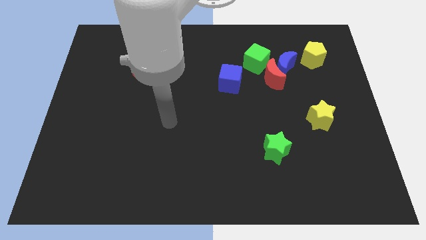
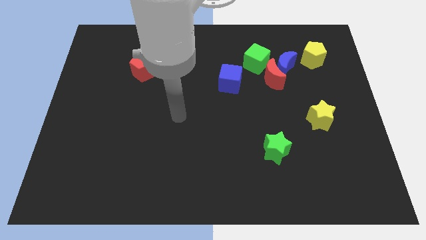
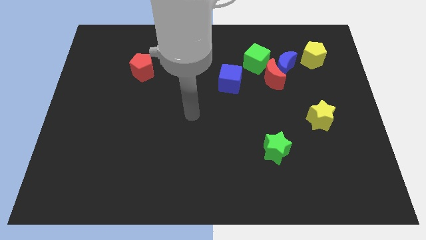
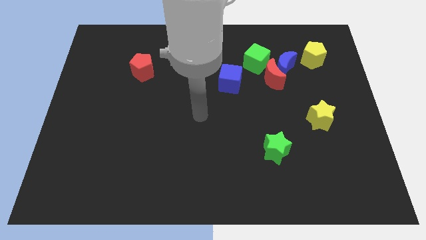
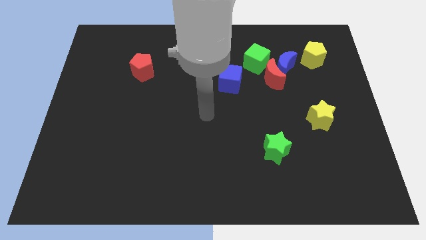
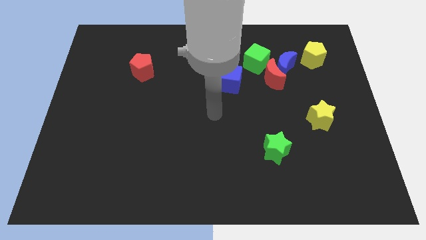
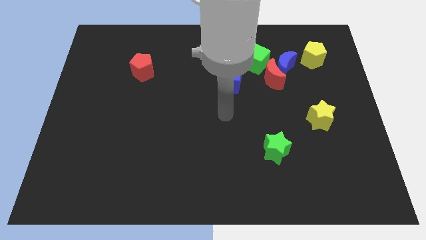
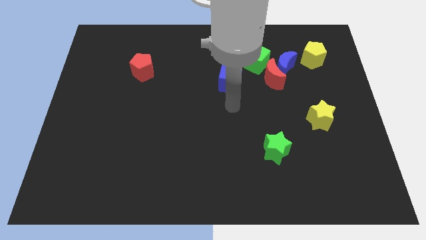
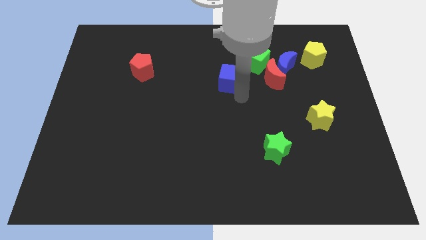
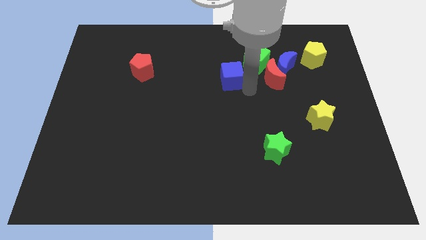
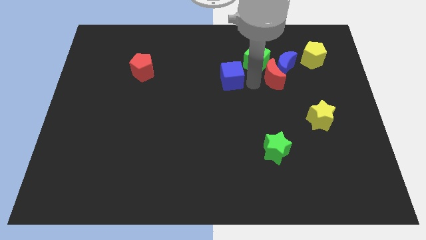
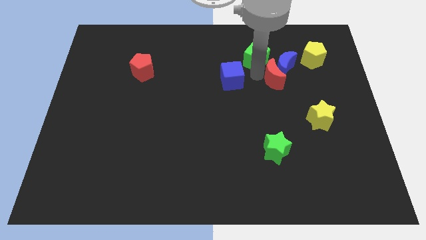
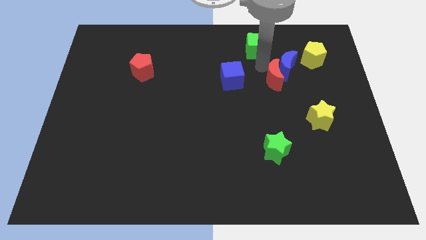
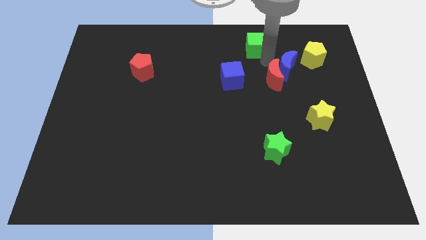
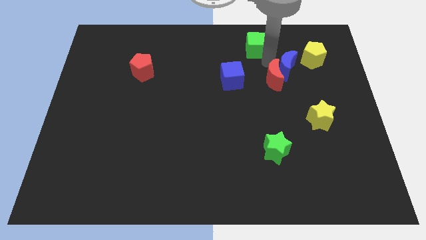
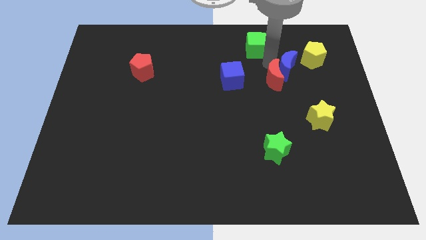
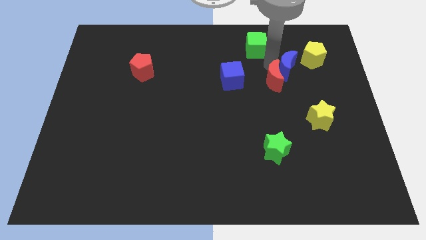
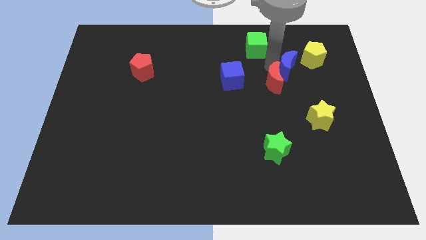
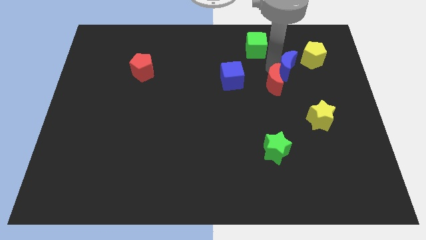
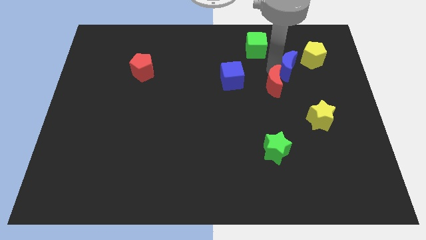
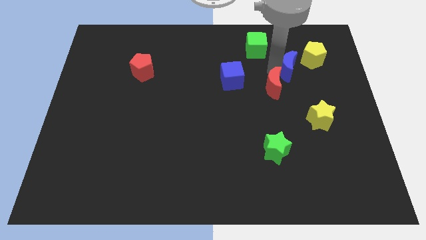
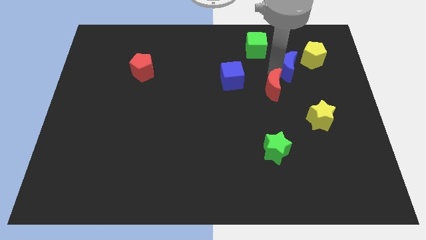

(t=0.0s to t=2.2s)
move the red moon away from the blue moon and green cube

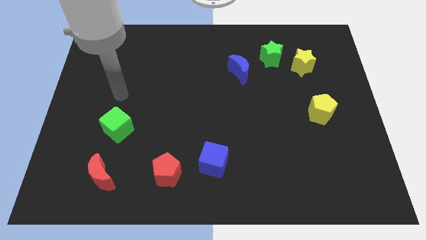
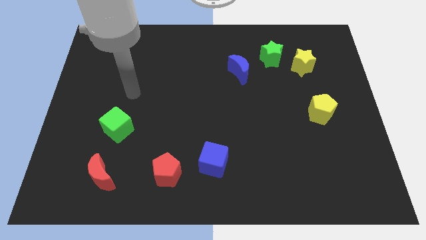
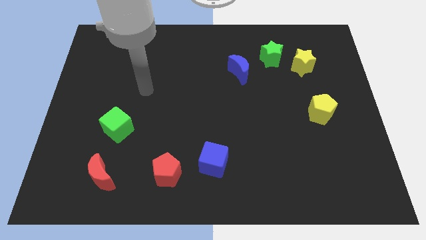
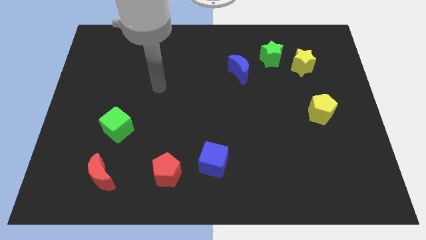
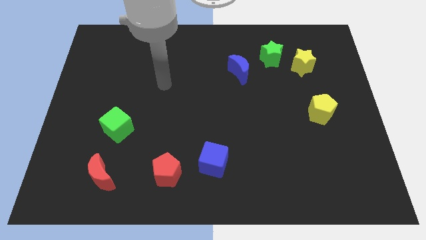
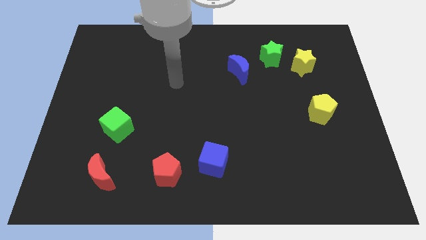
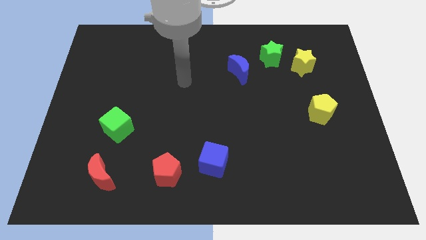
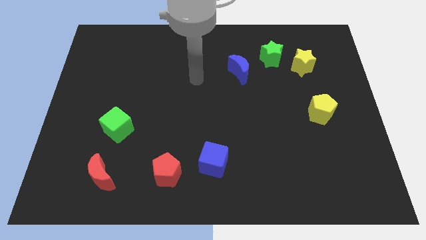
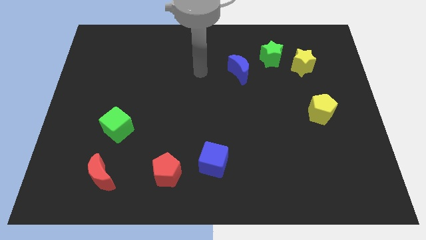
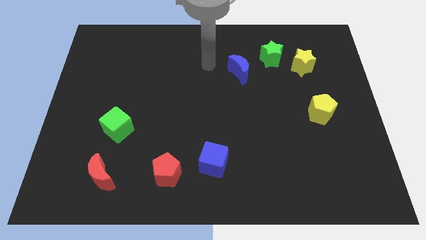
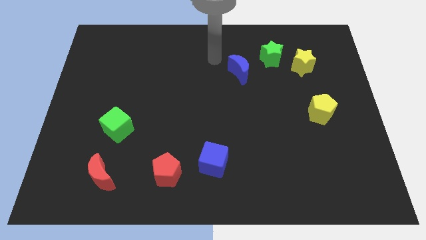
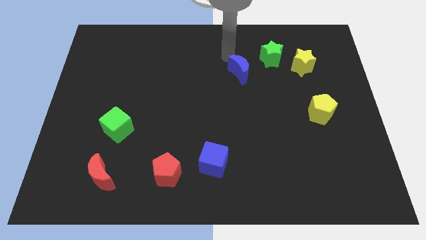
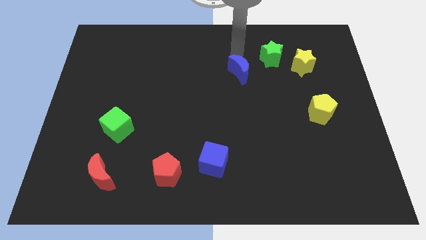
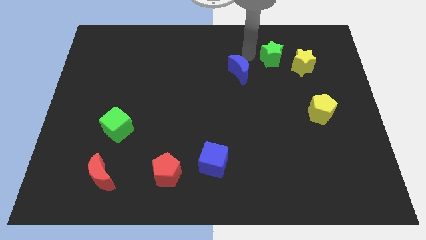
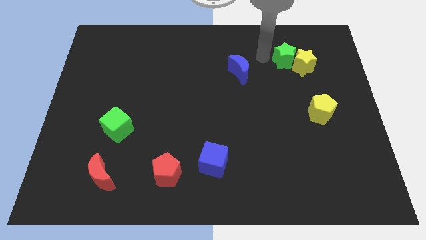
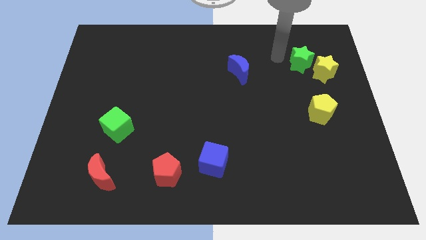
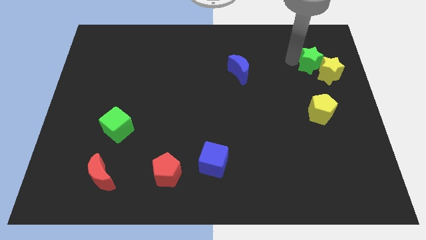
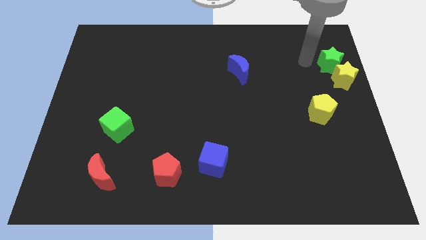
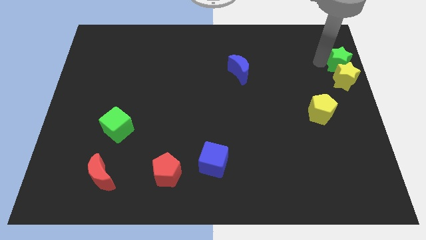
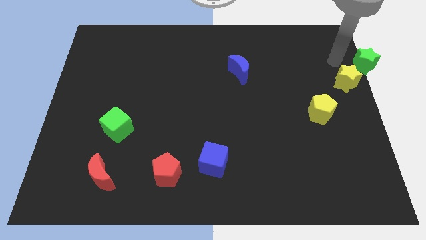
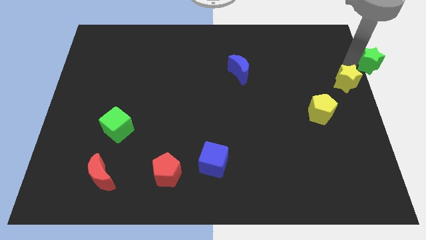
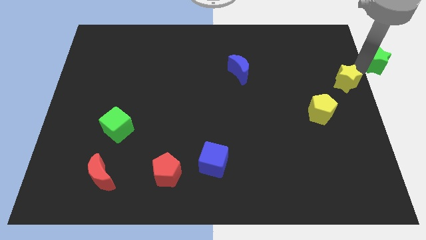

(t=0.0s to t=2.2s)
separate the yellow star from the green star

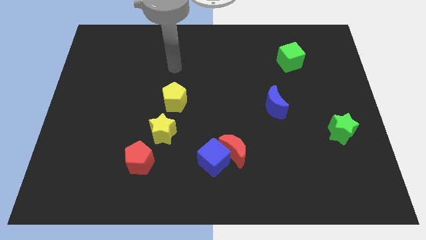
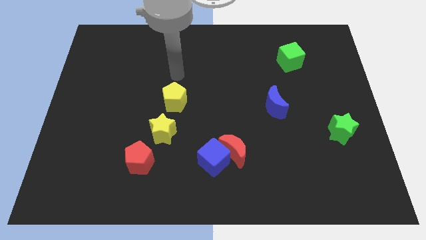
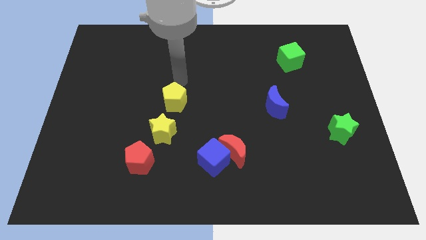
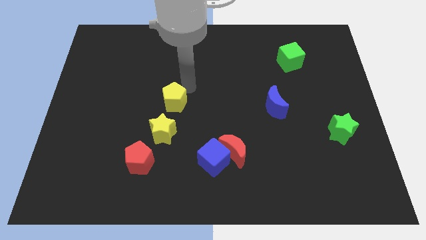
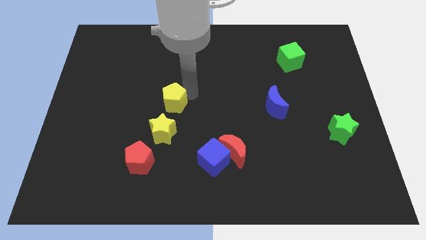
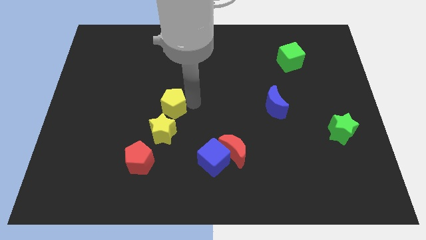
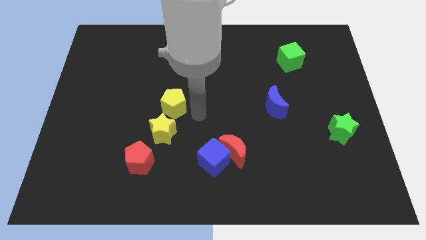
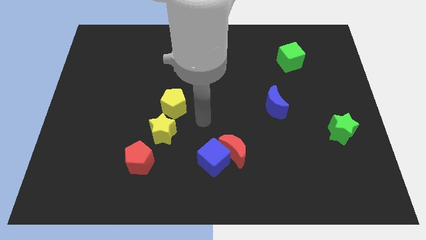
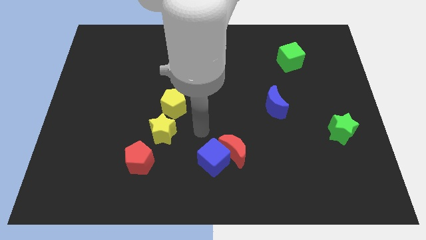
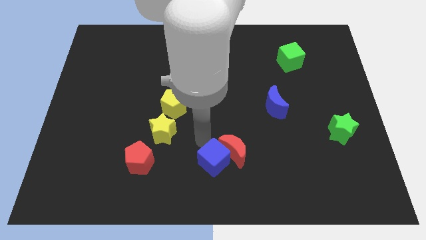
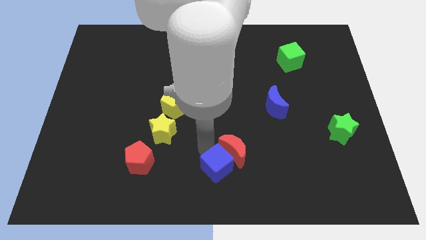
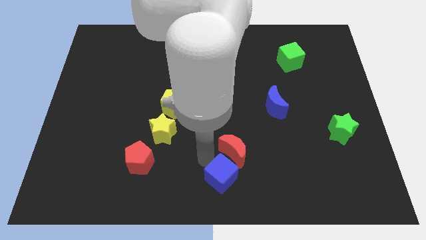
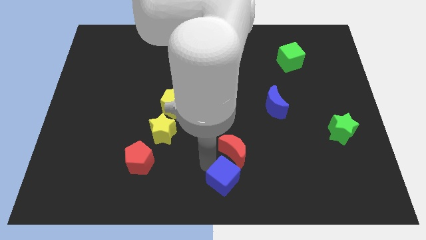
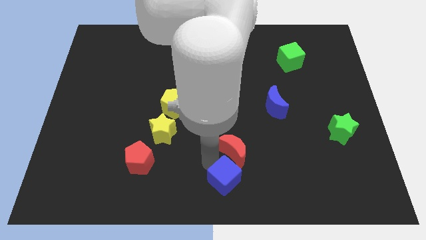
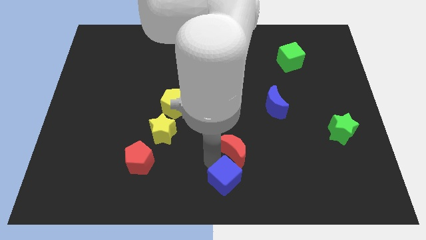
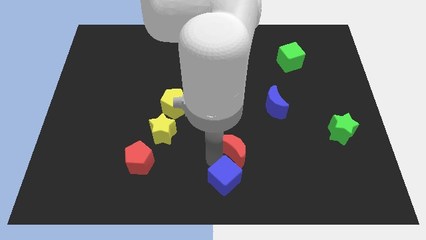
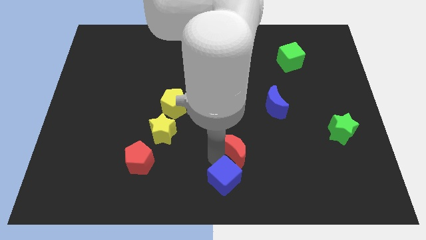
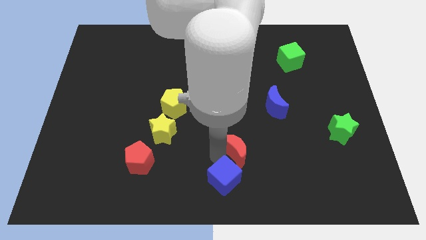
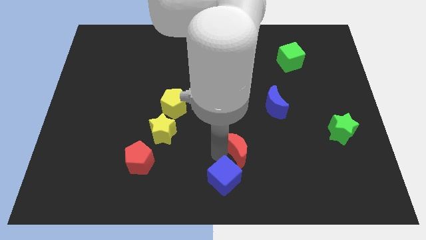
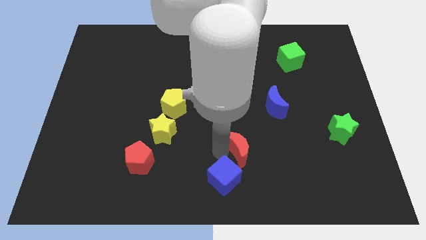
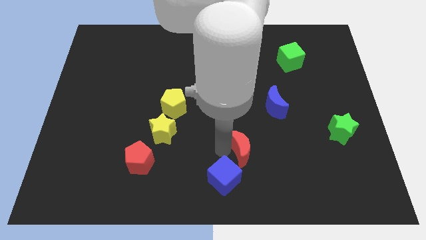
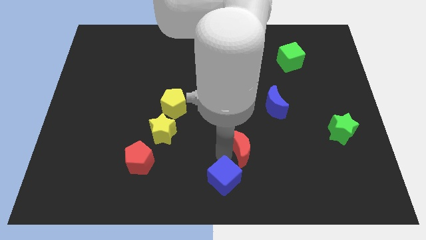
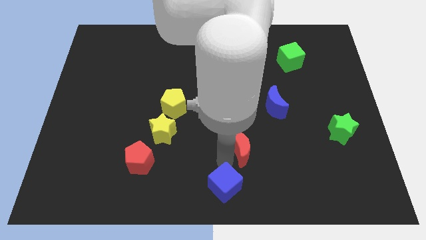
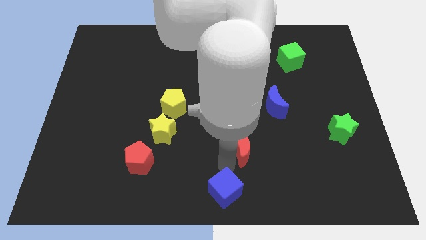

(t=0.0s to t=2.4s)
move the red moon away from the blue cube

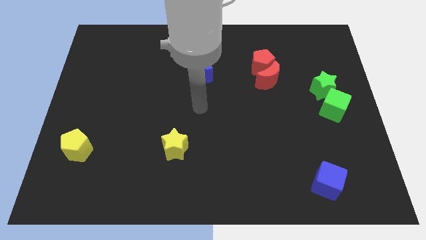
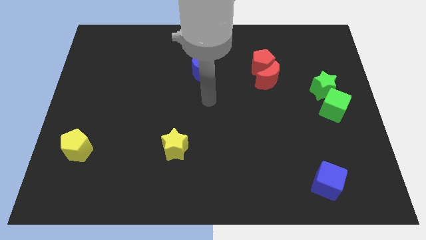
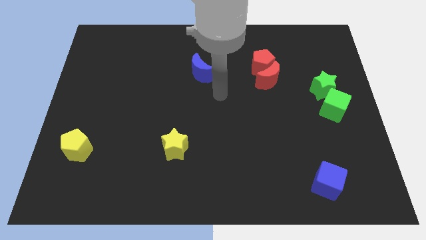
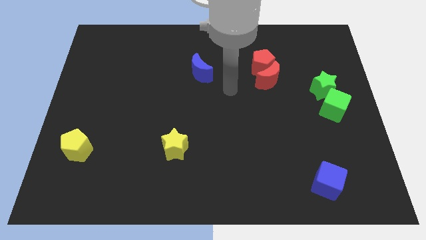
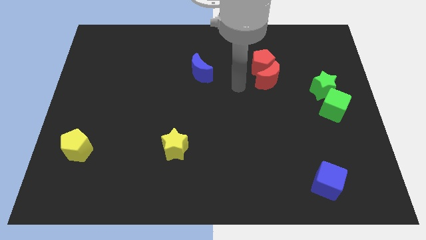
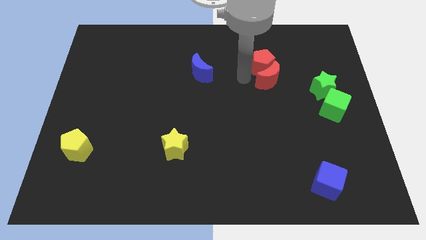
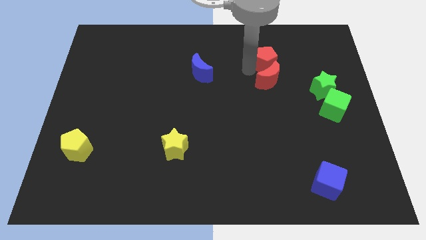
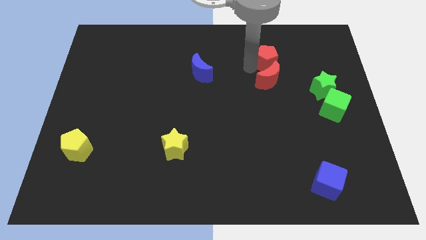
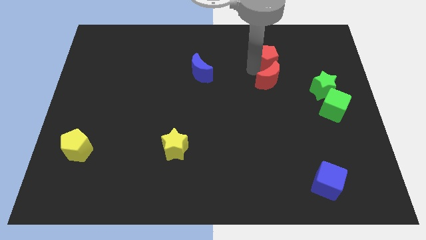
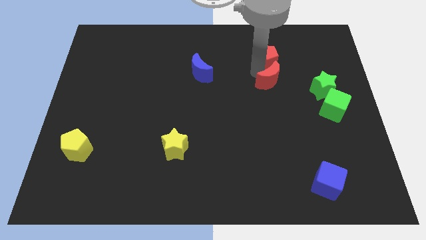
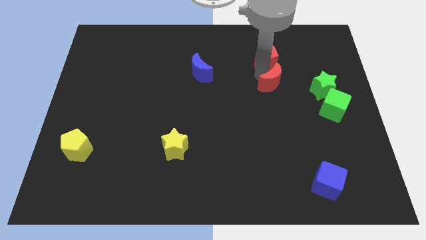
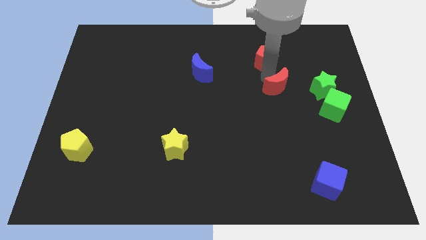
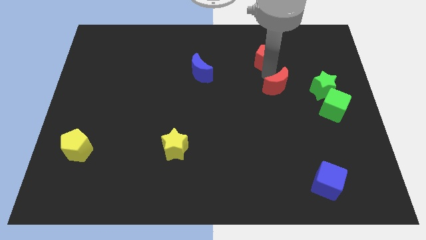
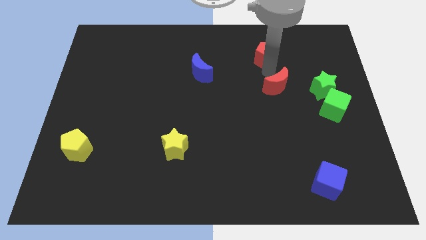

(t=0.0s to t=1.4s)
separate the red moon from the red pentagon

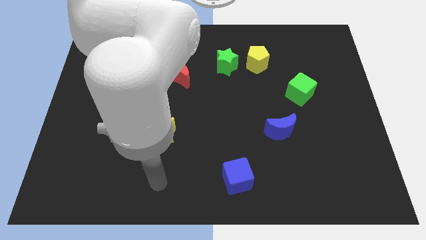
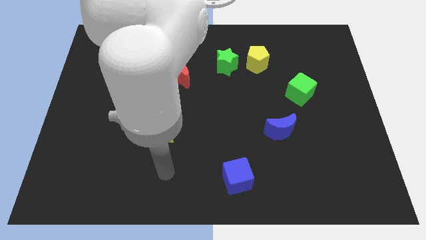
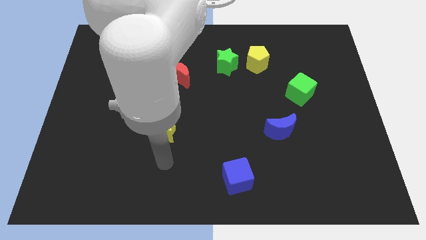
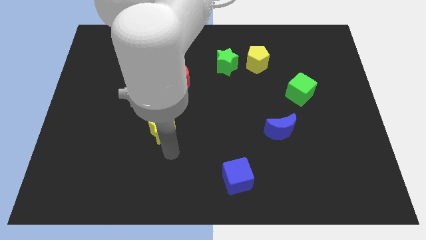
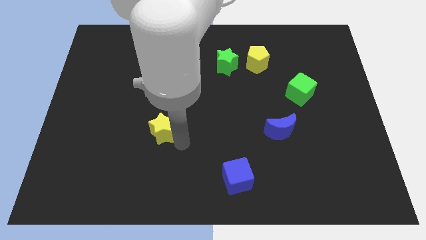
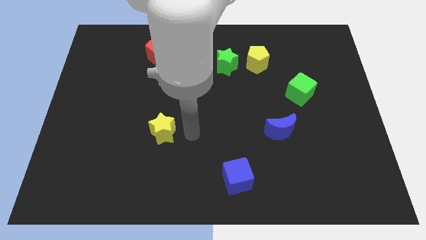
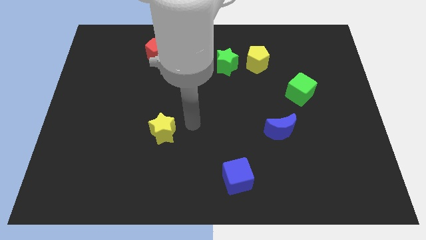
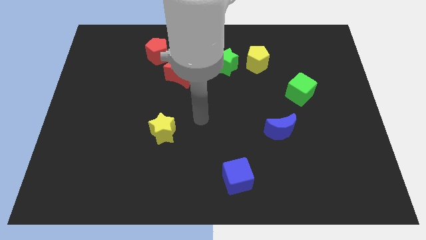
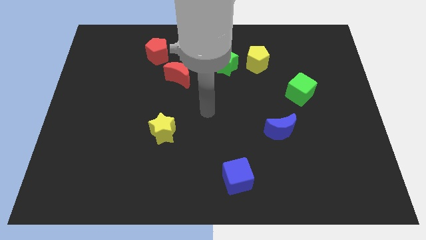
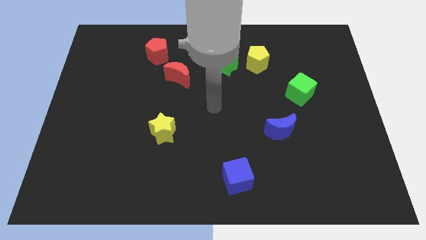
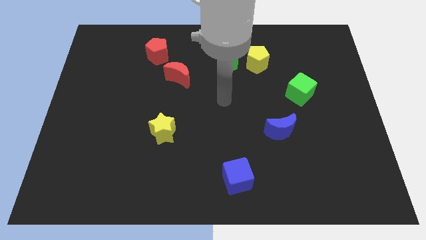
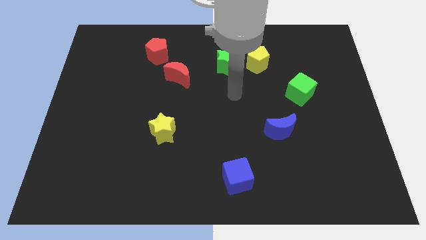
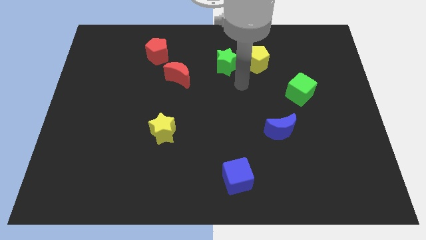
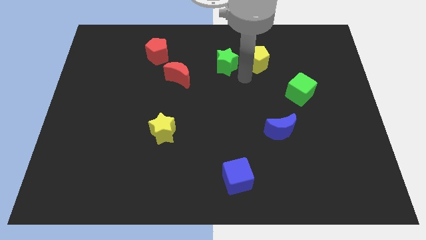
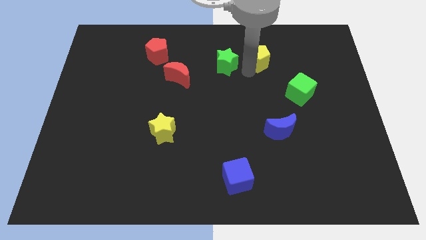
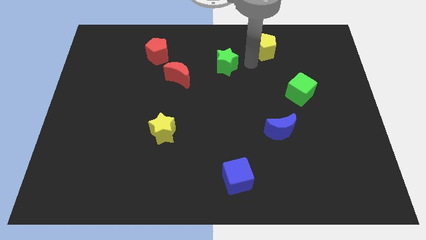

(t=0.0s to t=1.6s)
separate the green star from the yellow pentagon
